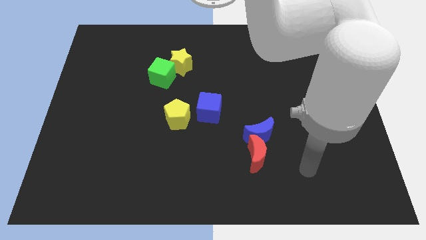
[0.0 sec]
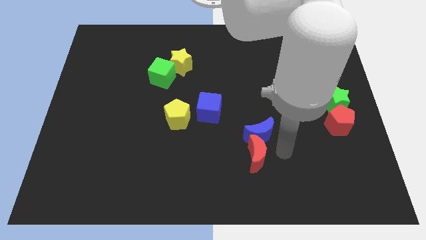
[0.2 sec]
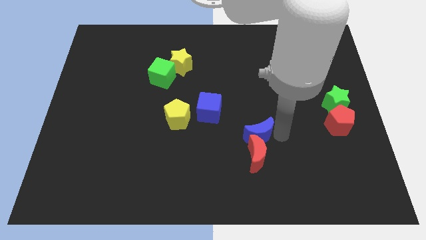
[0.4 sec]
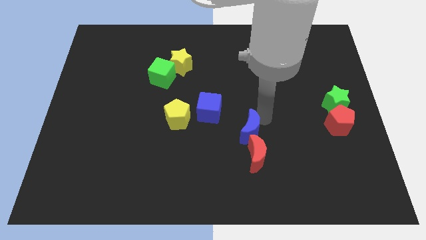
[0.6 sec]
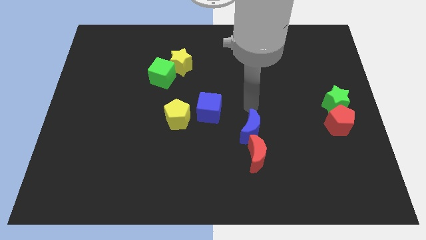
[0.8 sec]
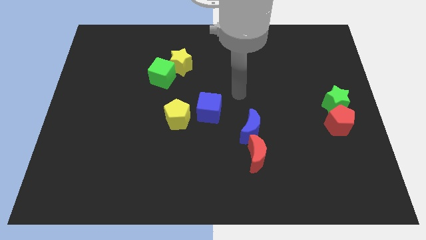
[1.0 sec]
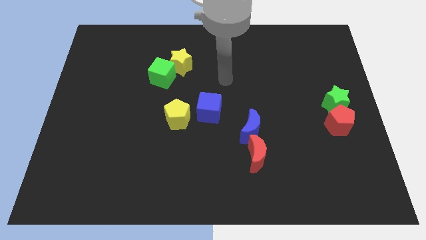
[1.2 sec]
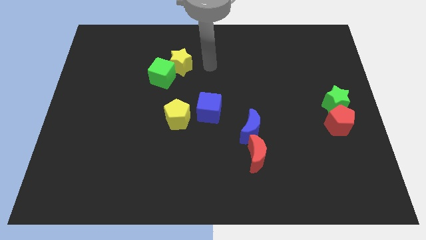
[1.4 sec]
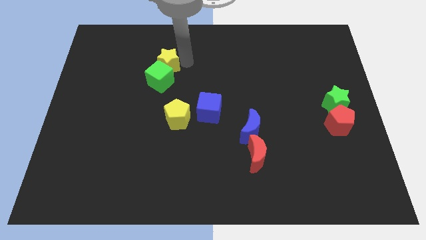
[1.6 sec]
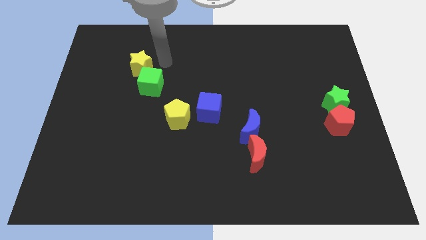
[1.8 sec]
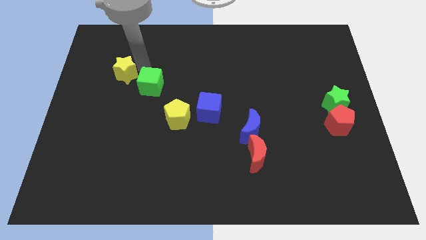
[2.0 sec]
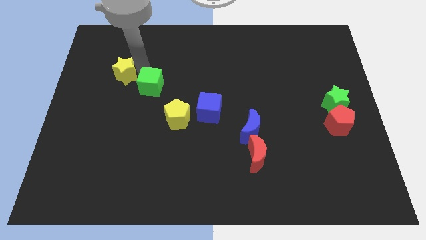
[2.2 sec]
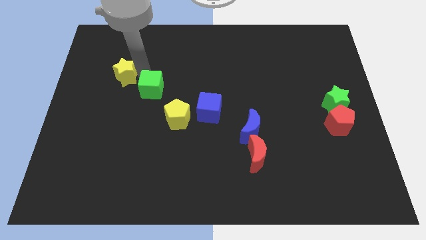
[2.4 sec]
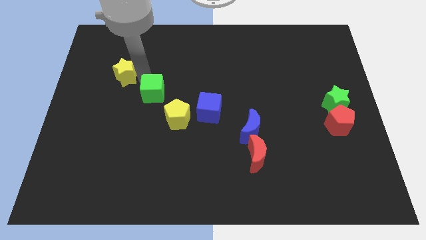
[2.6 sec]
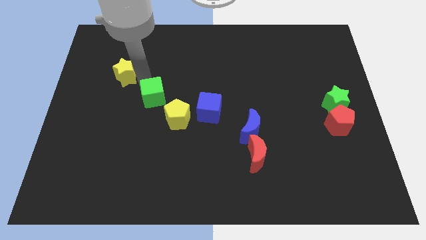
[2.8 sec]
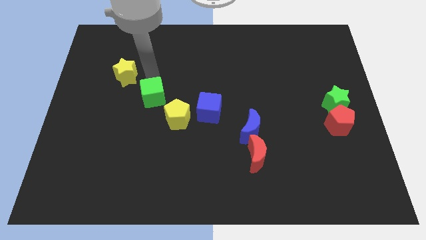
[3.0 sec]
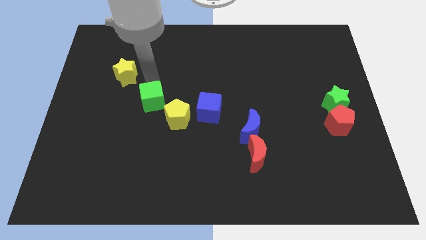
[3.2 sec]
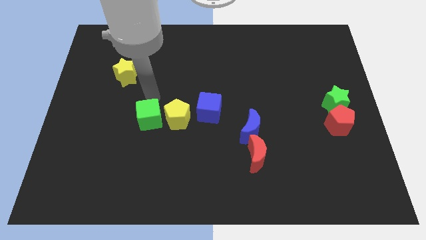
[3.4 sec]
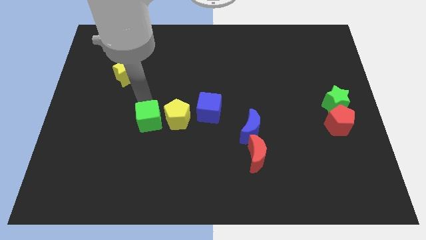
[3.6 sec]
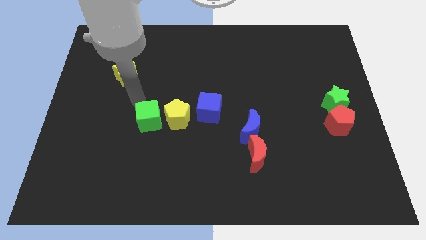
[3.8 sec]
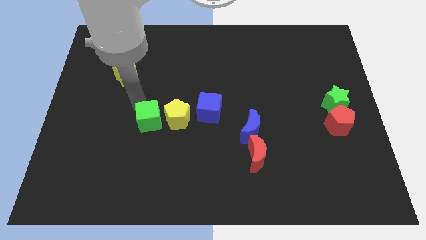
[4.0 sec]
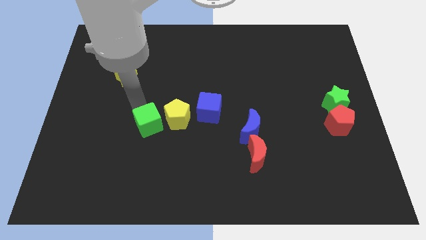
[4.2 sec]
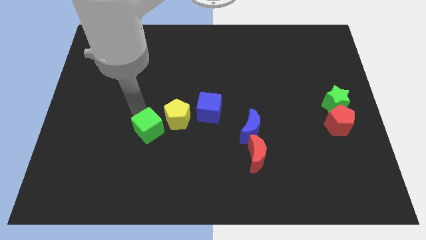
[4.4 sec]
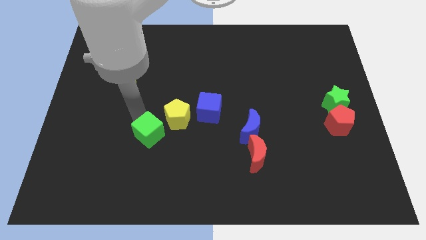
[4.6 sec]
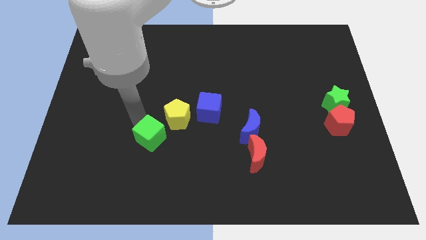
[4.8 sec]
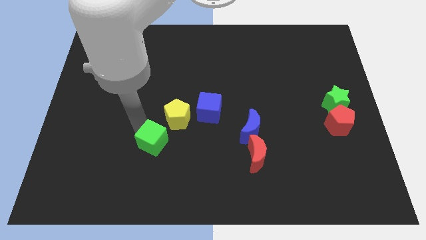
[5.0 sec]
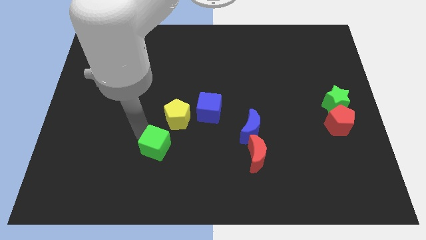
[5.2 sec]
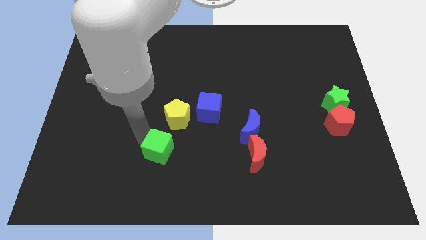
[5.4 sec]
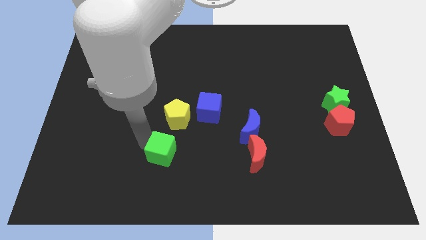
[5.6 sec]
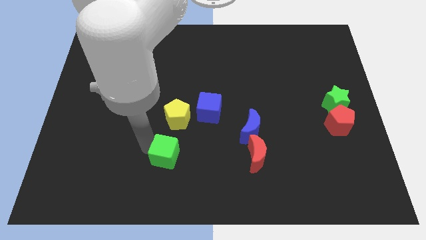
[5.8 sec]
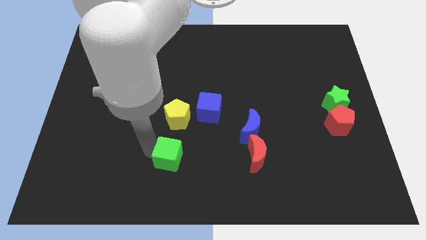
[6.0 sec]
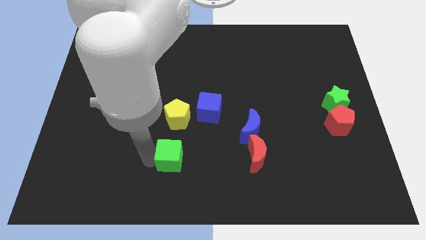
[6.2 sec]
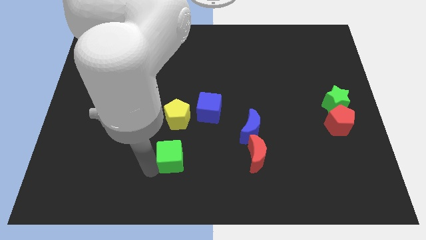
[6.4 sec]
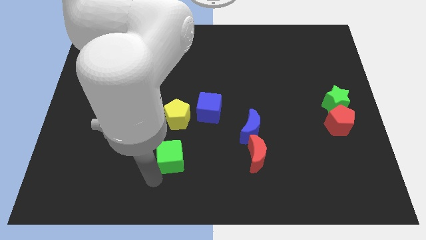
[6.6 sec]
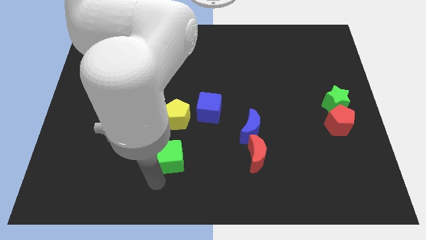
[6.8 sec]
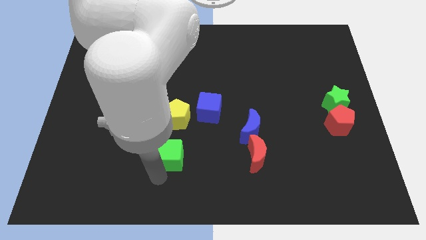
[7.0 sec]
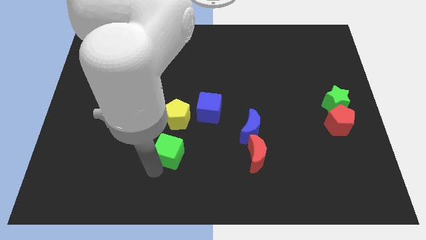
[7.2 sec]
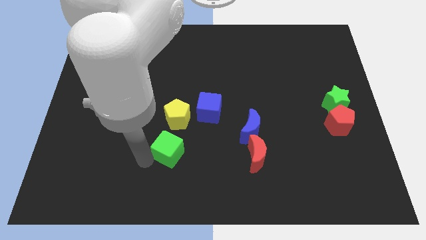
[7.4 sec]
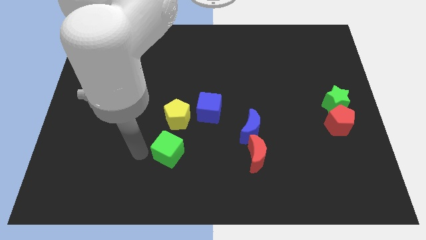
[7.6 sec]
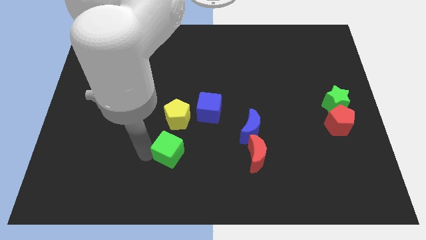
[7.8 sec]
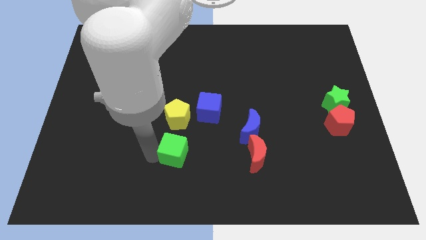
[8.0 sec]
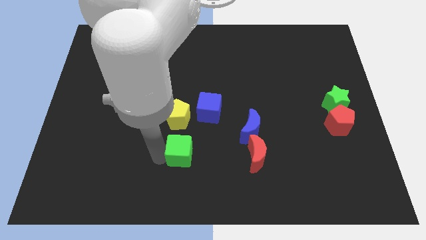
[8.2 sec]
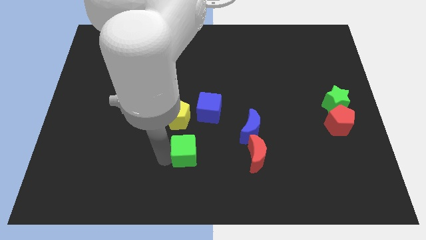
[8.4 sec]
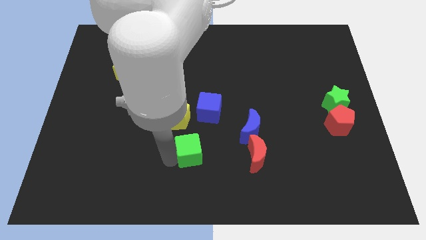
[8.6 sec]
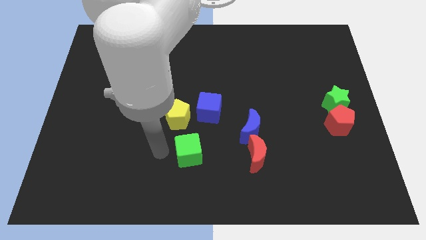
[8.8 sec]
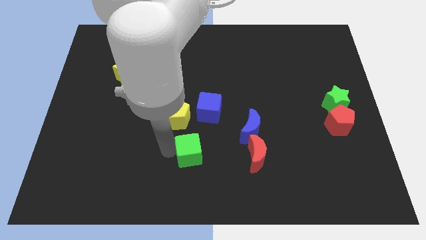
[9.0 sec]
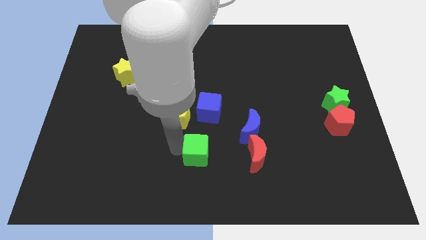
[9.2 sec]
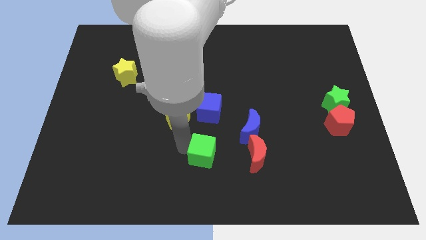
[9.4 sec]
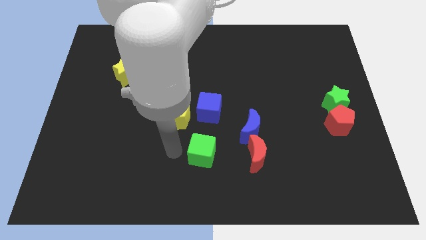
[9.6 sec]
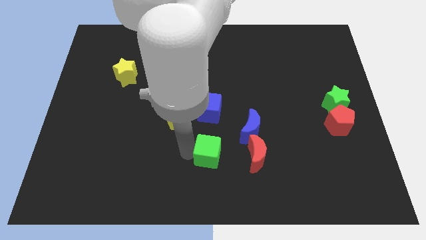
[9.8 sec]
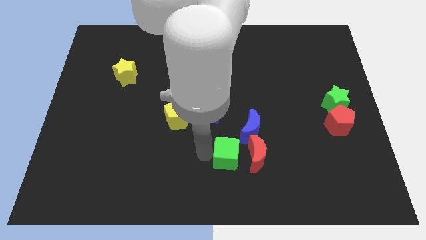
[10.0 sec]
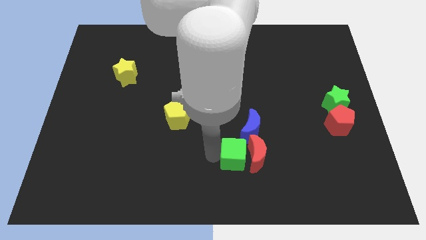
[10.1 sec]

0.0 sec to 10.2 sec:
slide the green cube to the red moon

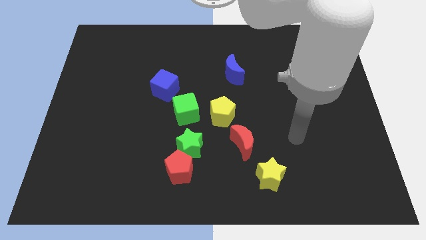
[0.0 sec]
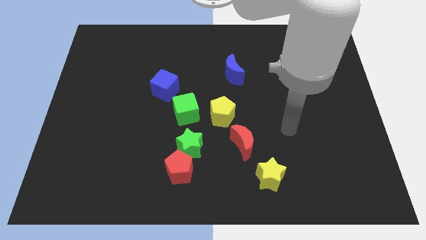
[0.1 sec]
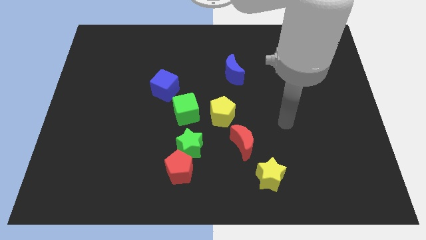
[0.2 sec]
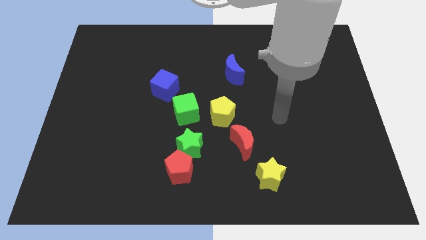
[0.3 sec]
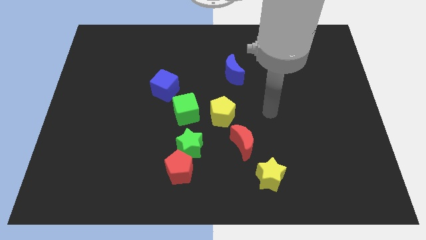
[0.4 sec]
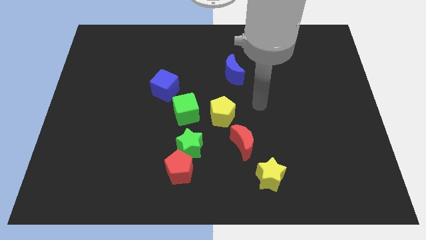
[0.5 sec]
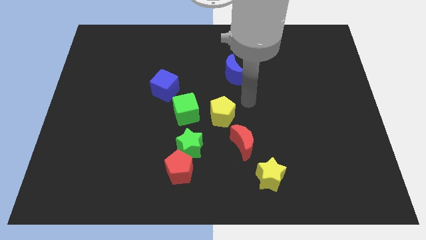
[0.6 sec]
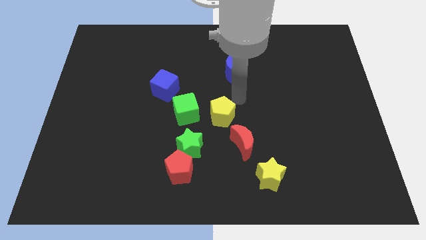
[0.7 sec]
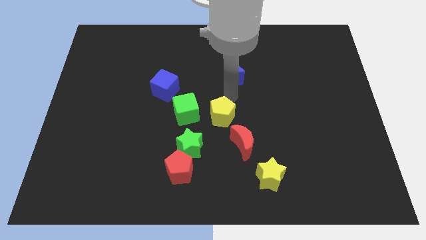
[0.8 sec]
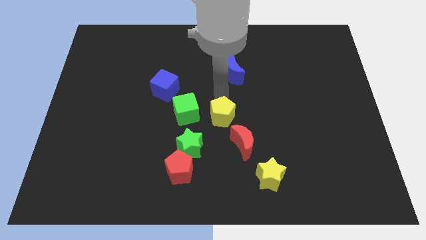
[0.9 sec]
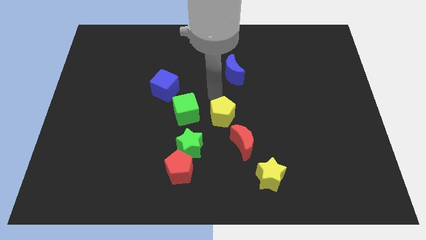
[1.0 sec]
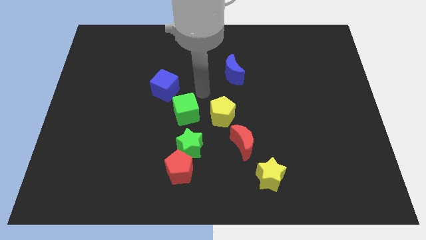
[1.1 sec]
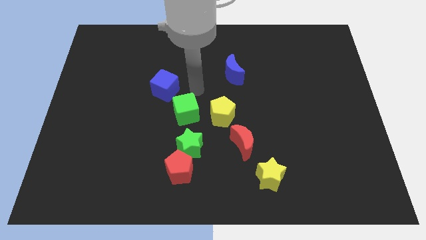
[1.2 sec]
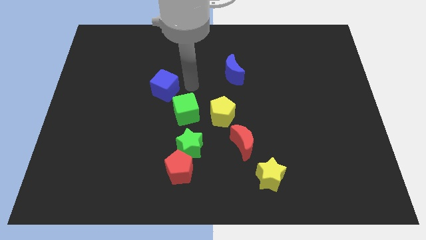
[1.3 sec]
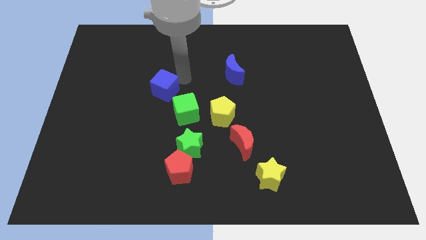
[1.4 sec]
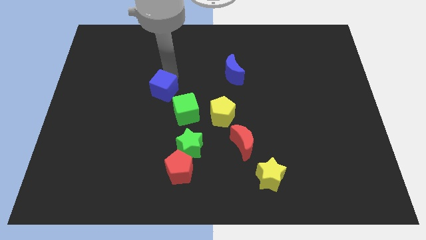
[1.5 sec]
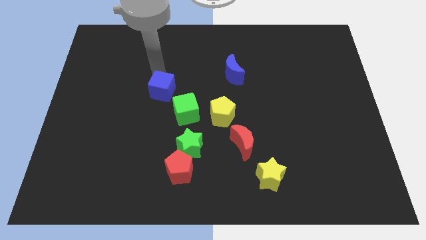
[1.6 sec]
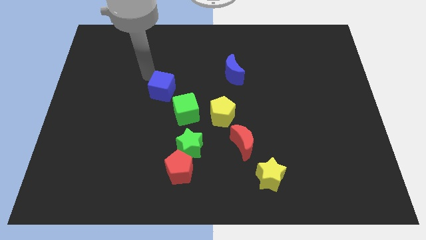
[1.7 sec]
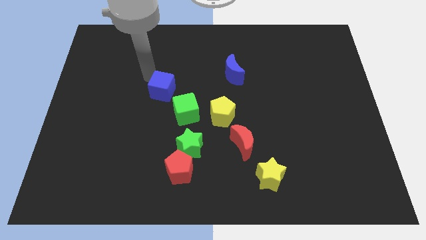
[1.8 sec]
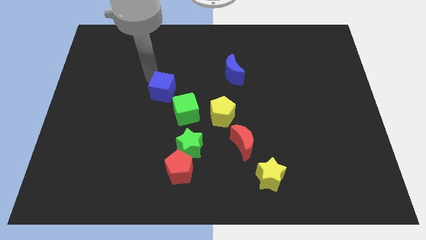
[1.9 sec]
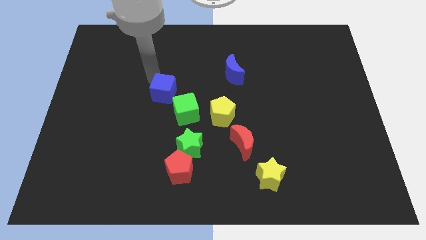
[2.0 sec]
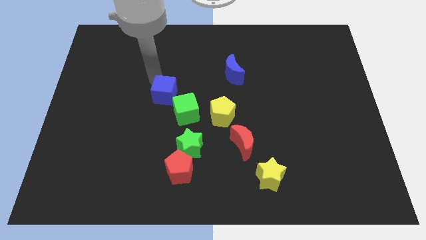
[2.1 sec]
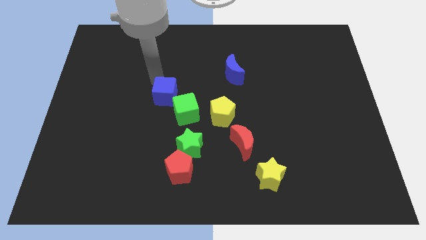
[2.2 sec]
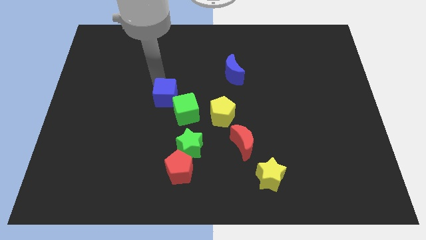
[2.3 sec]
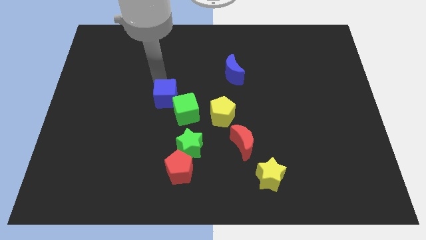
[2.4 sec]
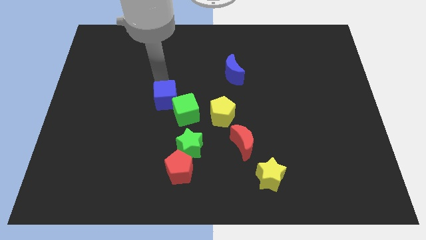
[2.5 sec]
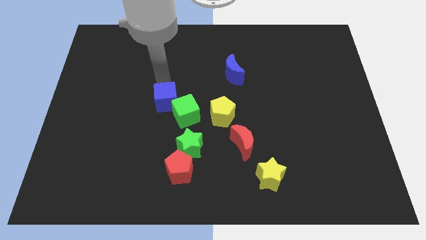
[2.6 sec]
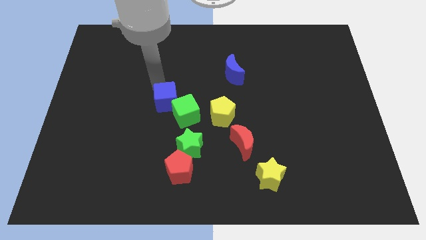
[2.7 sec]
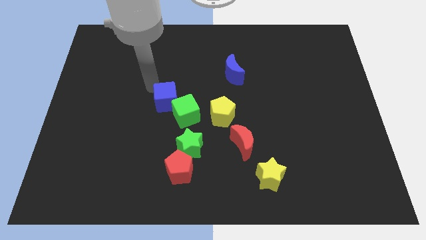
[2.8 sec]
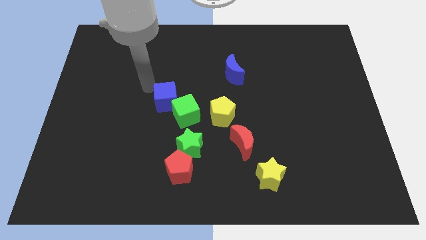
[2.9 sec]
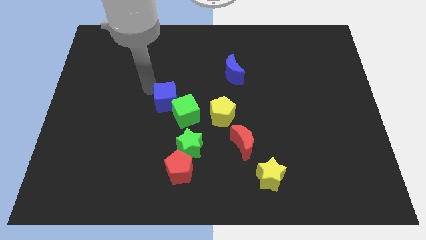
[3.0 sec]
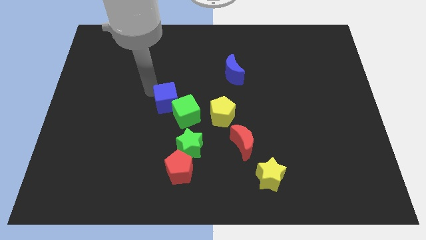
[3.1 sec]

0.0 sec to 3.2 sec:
move the blue cube close to the green cube
